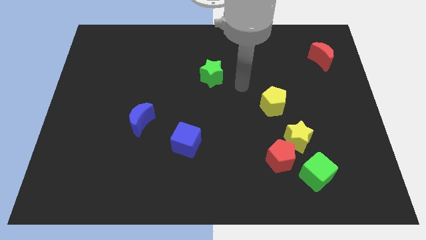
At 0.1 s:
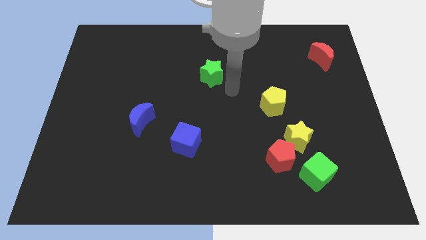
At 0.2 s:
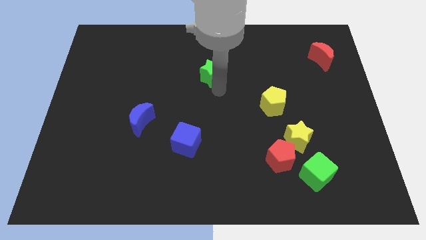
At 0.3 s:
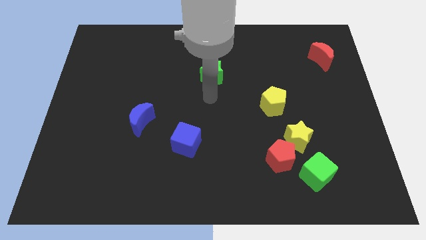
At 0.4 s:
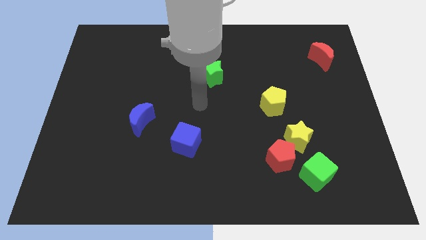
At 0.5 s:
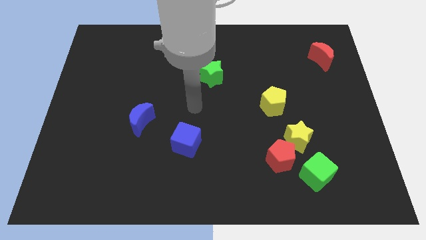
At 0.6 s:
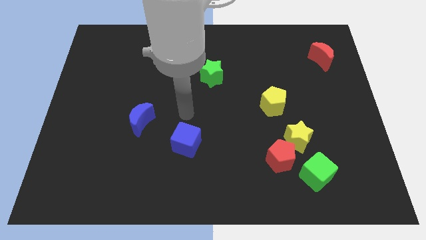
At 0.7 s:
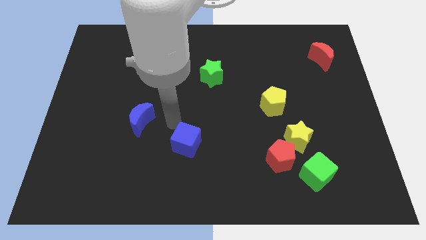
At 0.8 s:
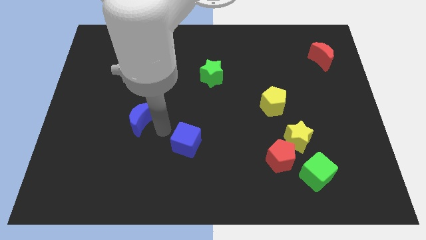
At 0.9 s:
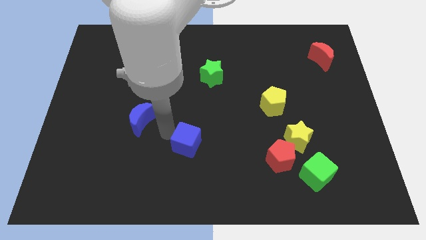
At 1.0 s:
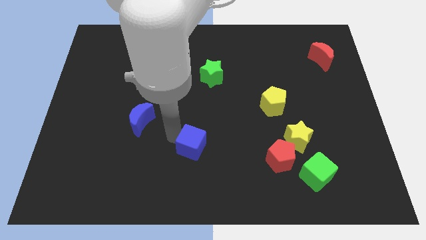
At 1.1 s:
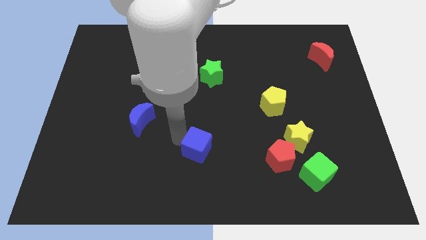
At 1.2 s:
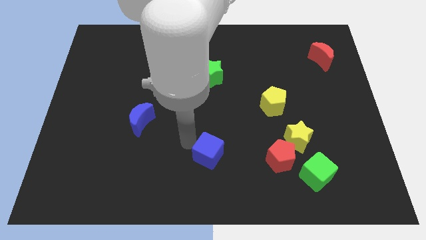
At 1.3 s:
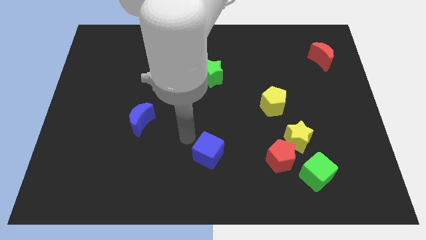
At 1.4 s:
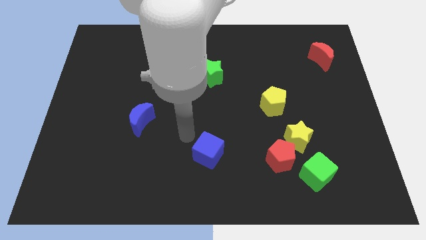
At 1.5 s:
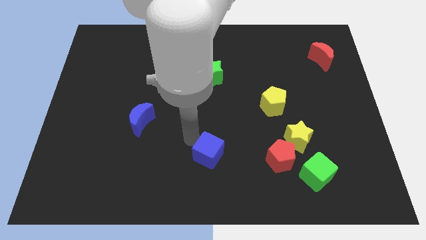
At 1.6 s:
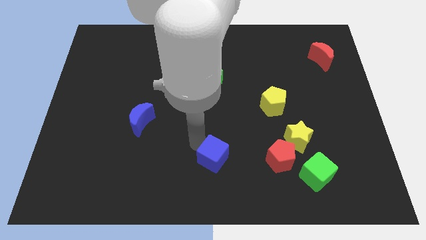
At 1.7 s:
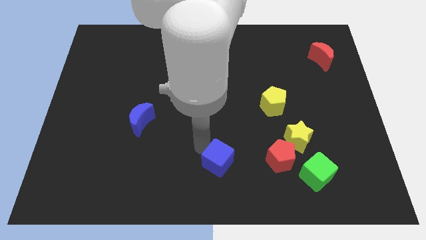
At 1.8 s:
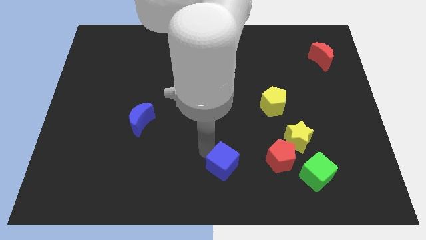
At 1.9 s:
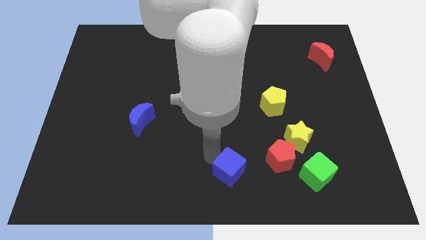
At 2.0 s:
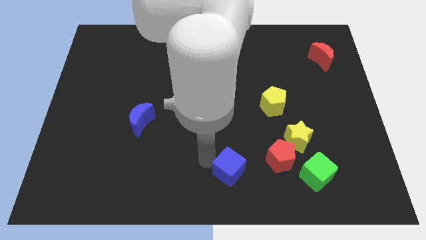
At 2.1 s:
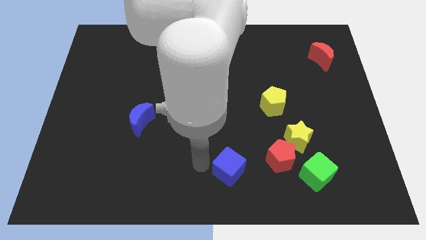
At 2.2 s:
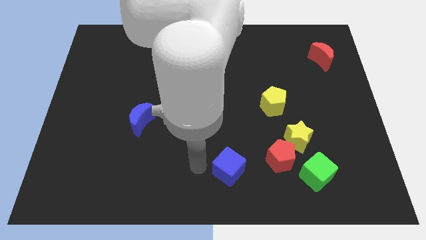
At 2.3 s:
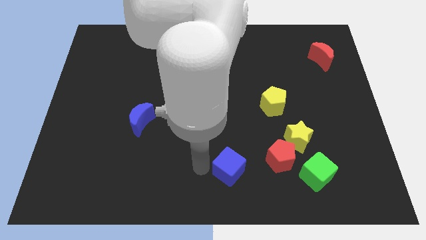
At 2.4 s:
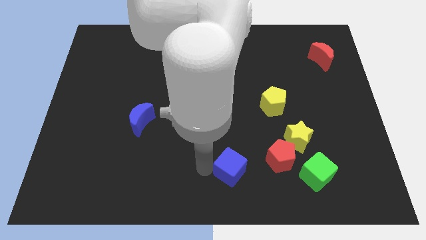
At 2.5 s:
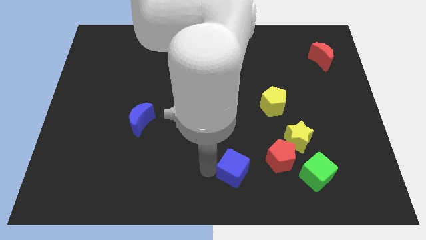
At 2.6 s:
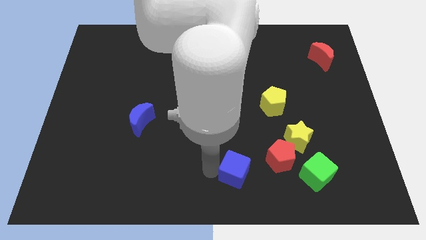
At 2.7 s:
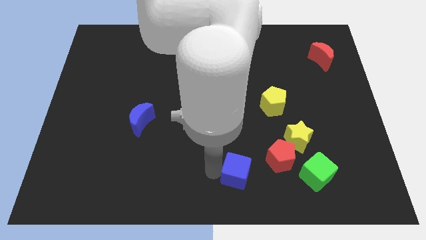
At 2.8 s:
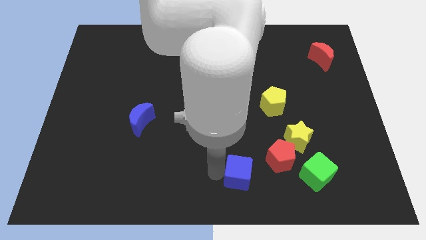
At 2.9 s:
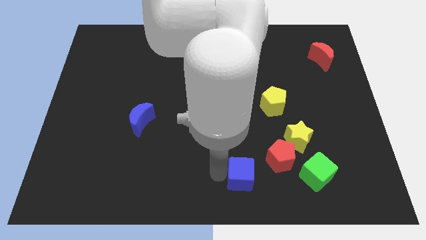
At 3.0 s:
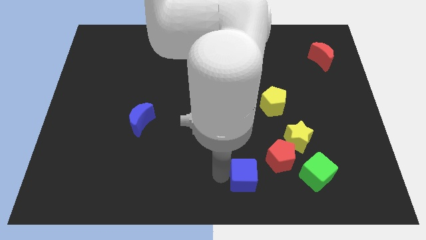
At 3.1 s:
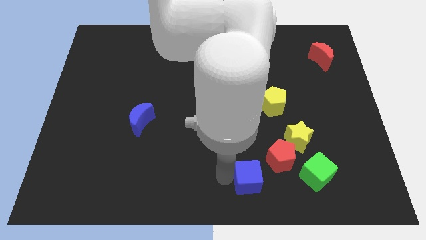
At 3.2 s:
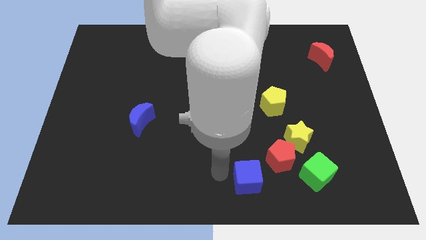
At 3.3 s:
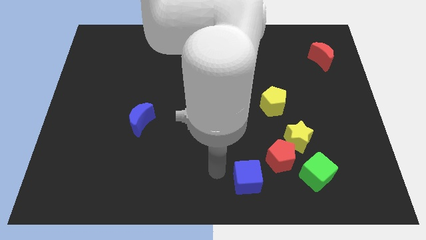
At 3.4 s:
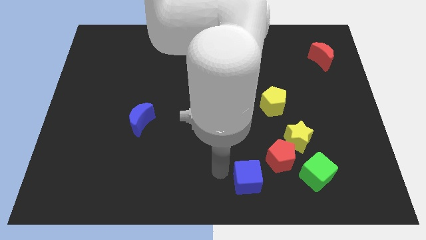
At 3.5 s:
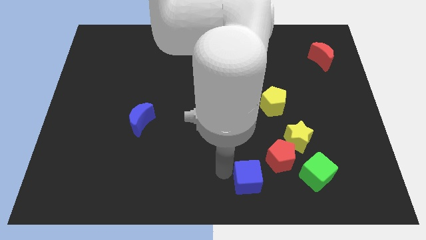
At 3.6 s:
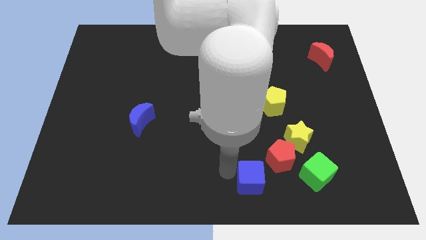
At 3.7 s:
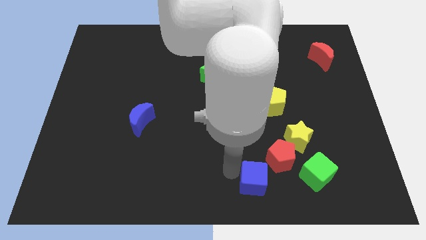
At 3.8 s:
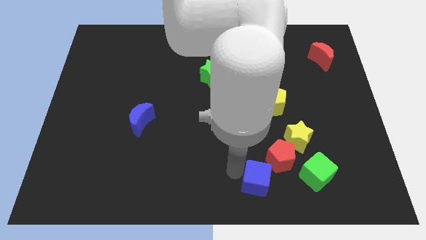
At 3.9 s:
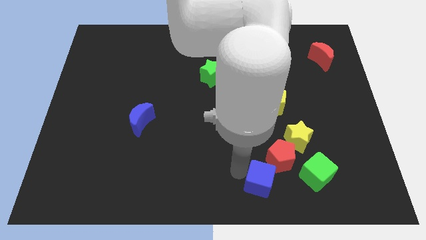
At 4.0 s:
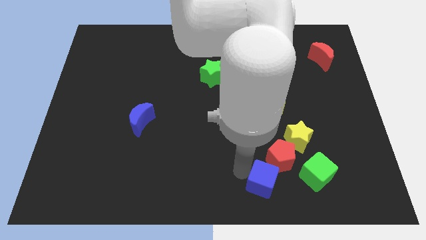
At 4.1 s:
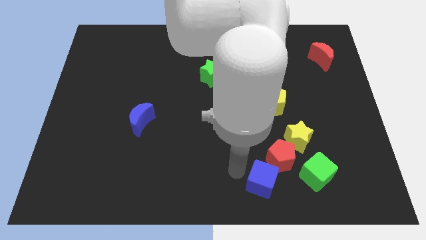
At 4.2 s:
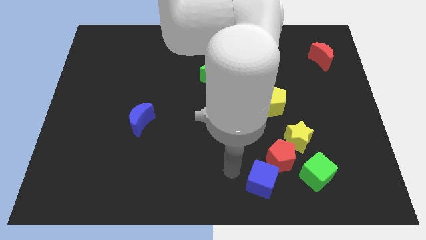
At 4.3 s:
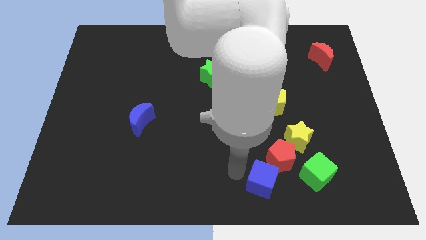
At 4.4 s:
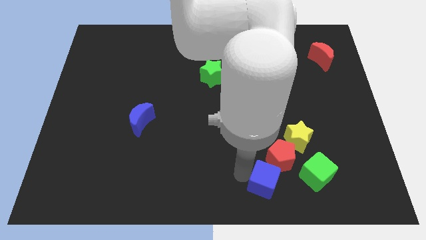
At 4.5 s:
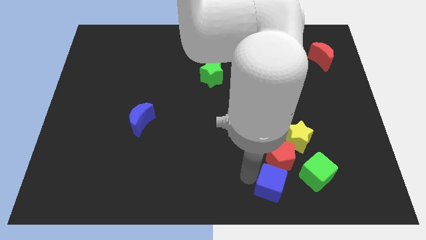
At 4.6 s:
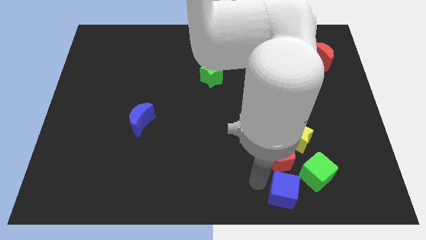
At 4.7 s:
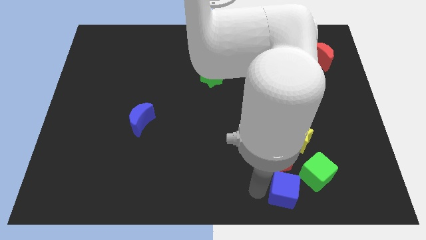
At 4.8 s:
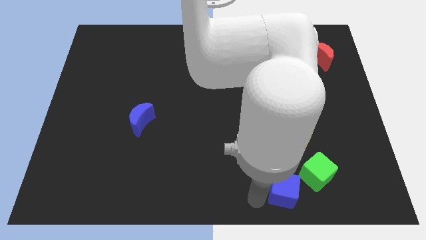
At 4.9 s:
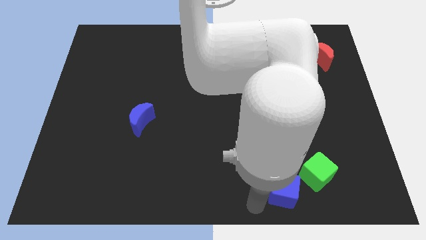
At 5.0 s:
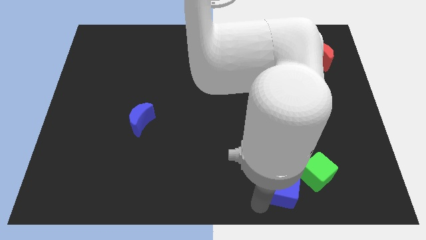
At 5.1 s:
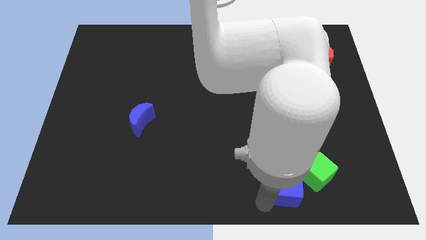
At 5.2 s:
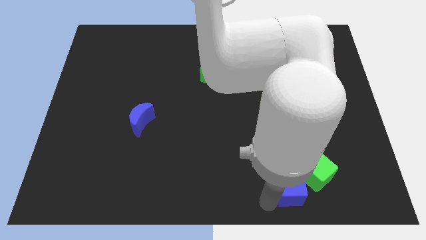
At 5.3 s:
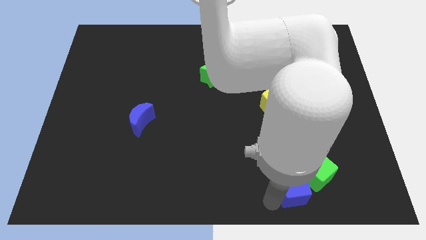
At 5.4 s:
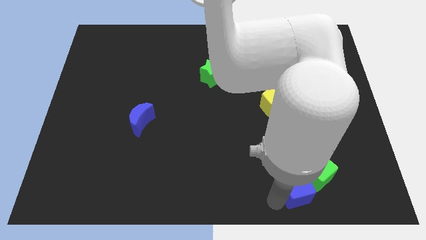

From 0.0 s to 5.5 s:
put the blue cube next to the green cube

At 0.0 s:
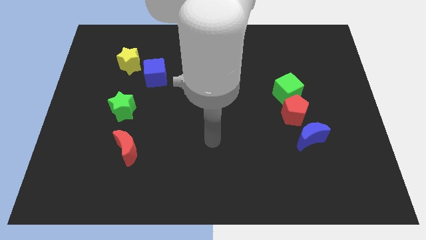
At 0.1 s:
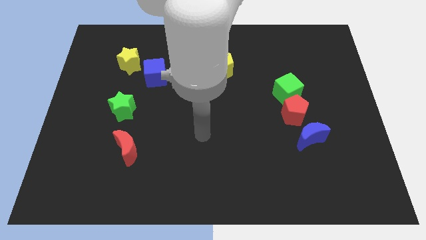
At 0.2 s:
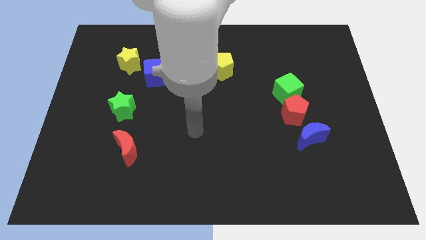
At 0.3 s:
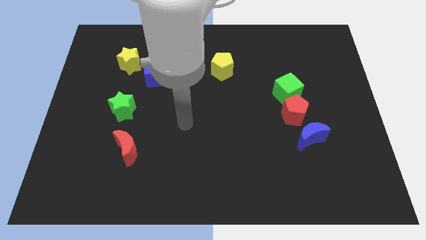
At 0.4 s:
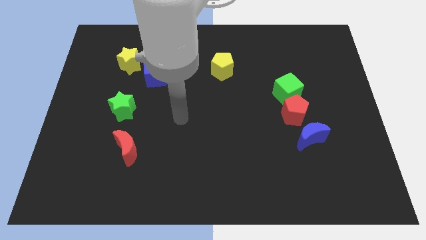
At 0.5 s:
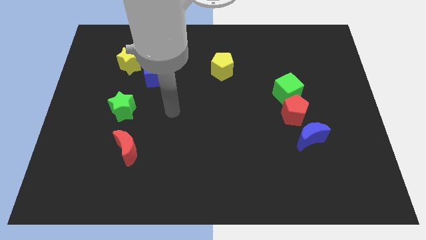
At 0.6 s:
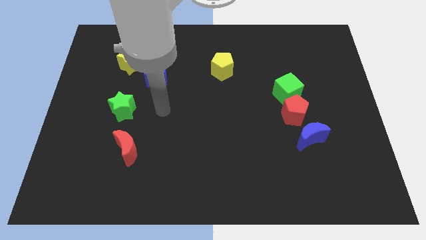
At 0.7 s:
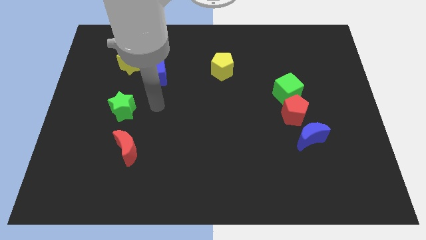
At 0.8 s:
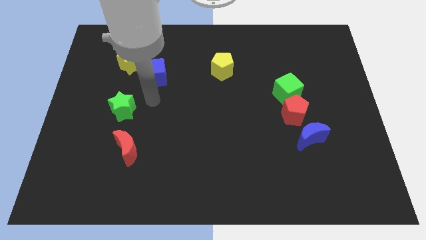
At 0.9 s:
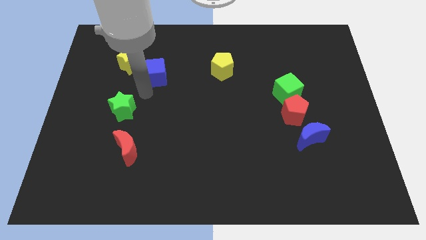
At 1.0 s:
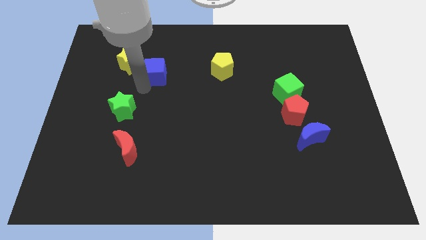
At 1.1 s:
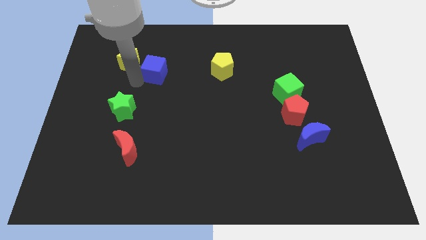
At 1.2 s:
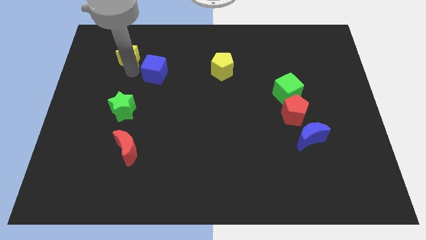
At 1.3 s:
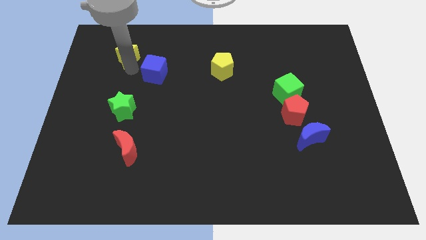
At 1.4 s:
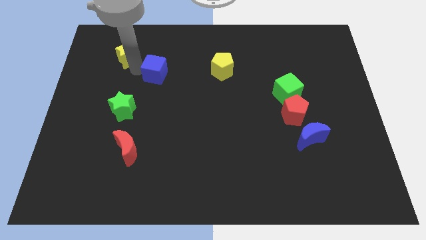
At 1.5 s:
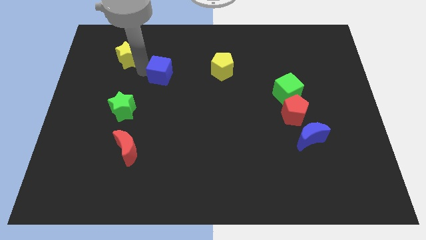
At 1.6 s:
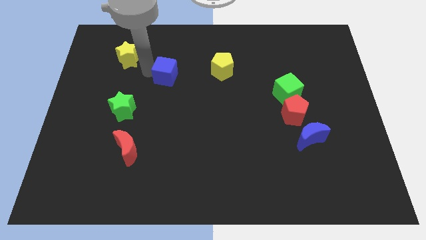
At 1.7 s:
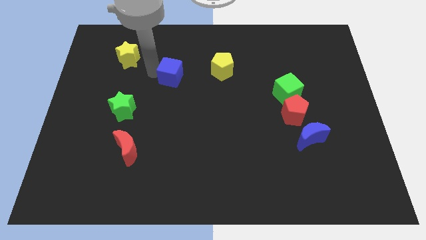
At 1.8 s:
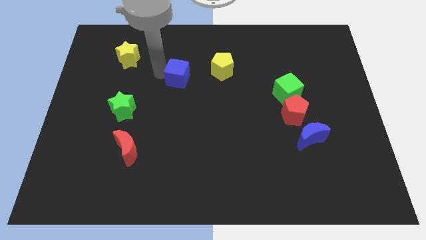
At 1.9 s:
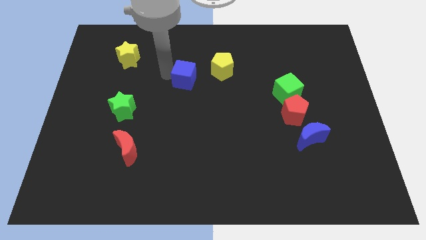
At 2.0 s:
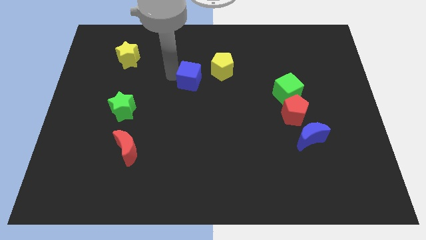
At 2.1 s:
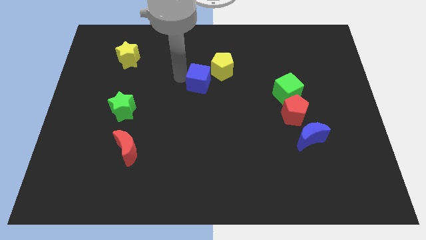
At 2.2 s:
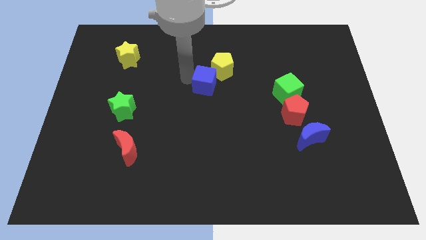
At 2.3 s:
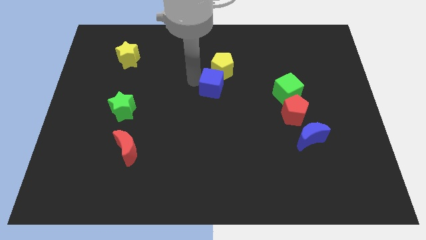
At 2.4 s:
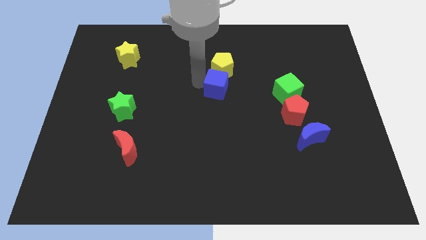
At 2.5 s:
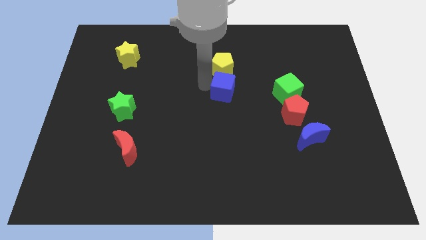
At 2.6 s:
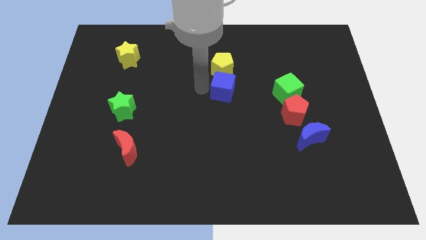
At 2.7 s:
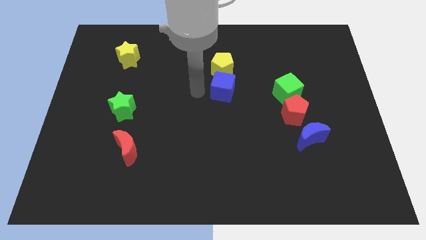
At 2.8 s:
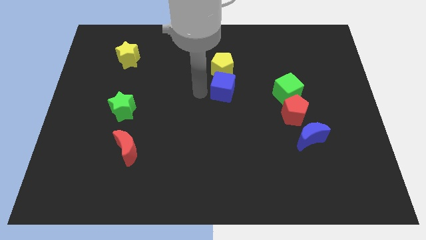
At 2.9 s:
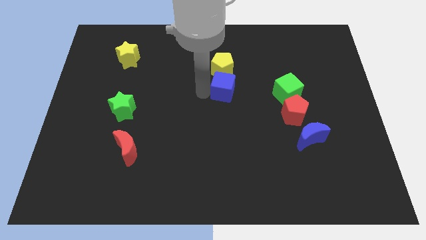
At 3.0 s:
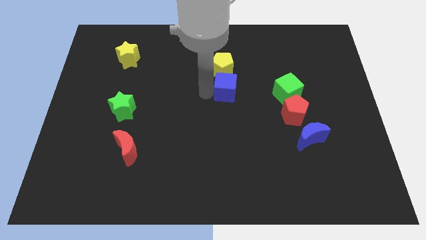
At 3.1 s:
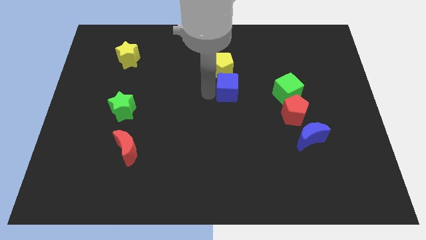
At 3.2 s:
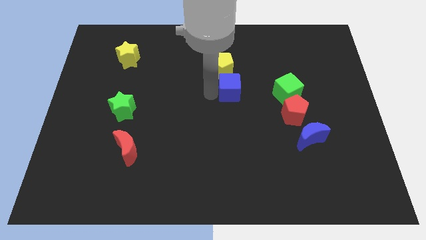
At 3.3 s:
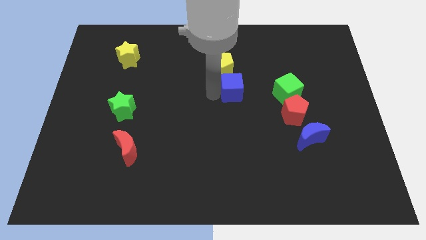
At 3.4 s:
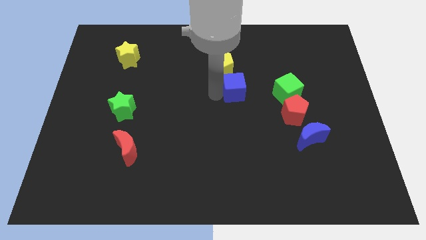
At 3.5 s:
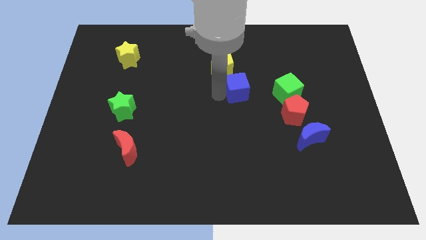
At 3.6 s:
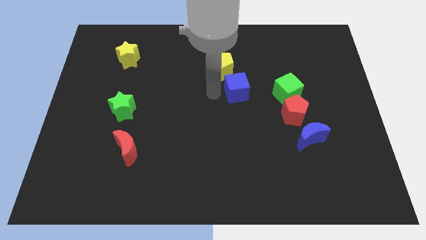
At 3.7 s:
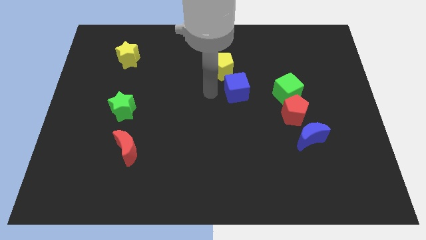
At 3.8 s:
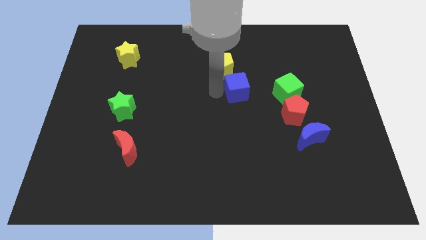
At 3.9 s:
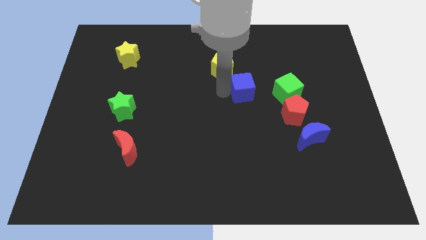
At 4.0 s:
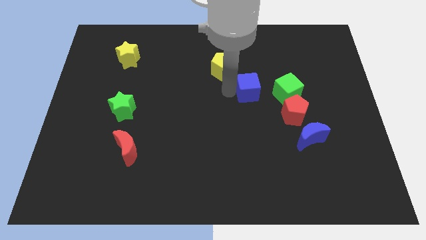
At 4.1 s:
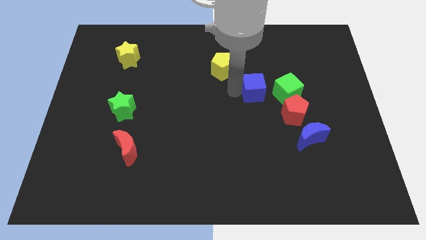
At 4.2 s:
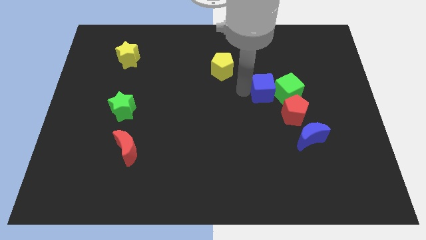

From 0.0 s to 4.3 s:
push the blue cube next to the green cube
